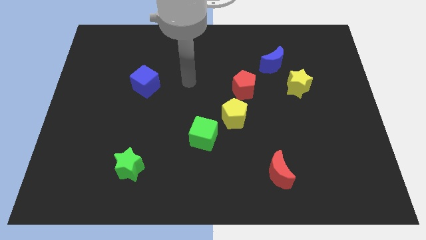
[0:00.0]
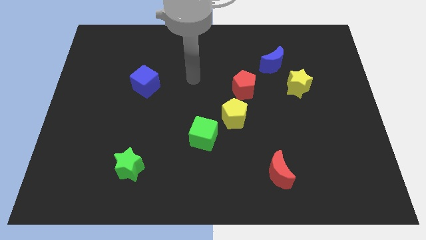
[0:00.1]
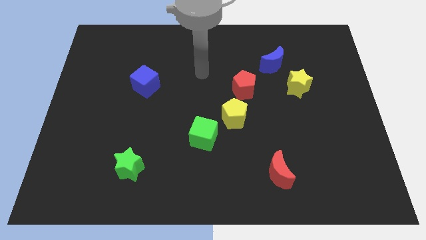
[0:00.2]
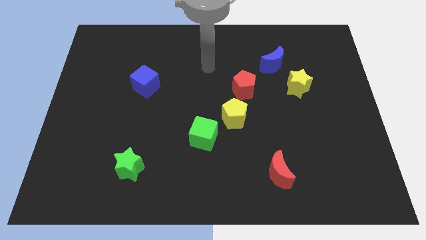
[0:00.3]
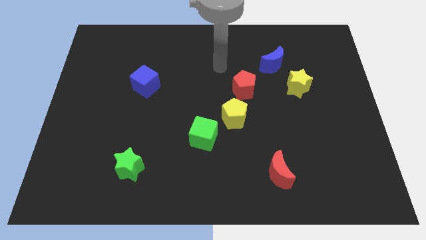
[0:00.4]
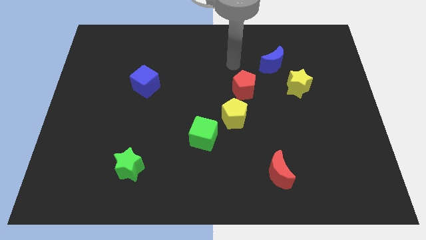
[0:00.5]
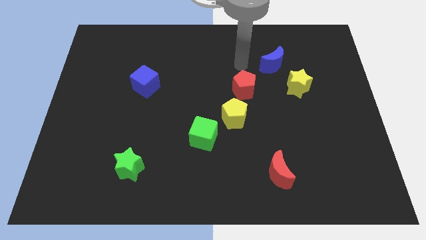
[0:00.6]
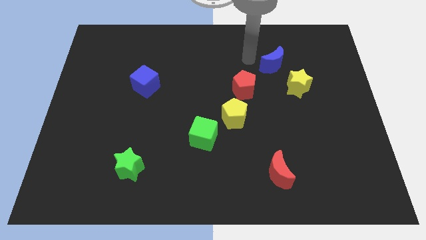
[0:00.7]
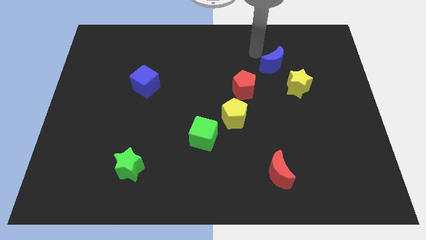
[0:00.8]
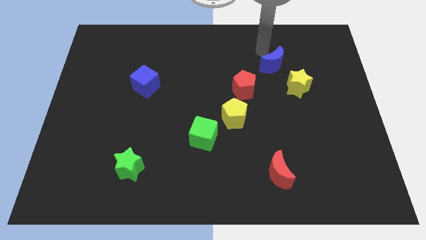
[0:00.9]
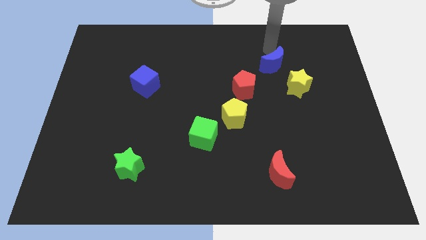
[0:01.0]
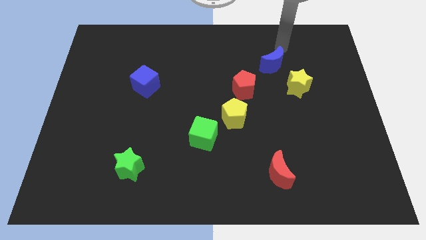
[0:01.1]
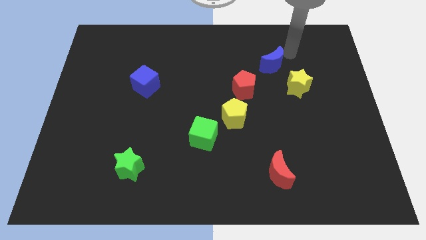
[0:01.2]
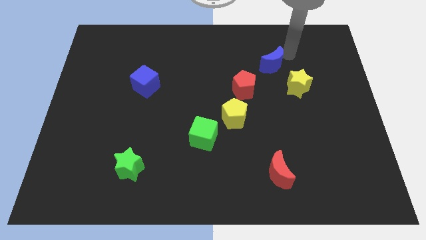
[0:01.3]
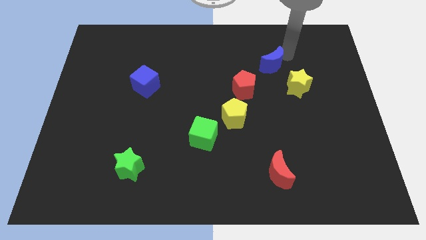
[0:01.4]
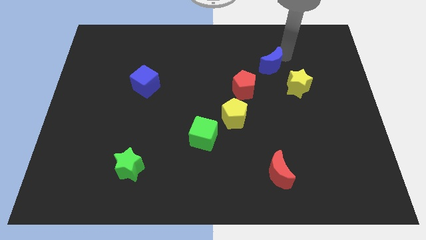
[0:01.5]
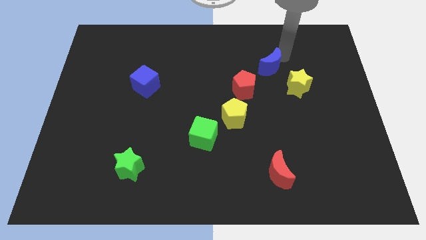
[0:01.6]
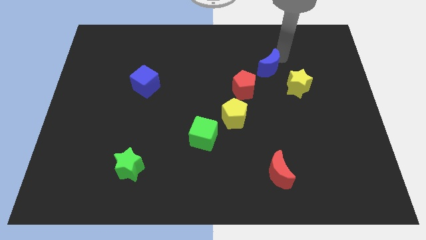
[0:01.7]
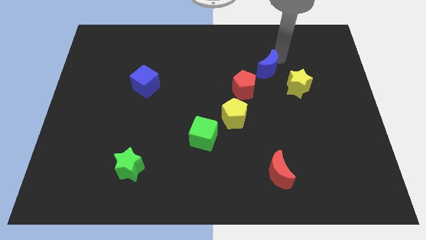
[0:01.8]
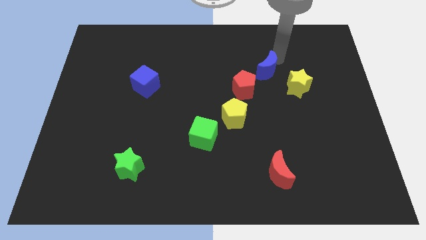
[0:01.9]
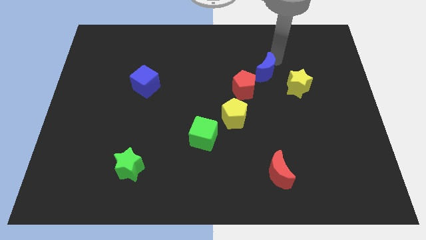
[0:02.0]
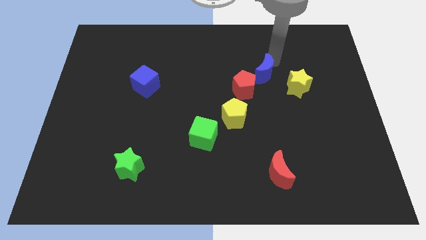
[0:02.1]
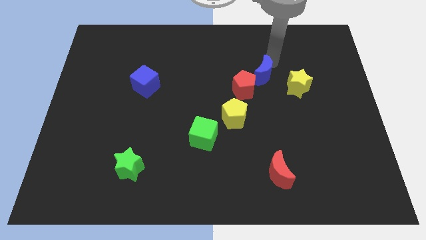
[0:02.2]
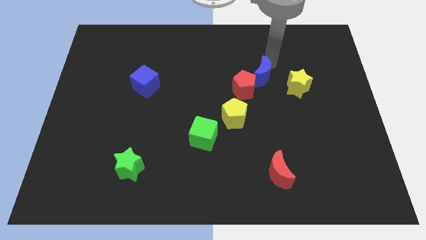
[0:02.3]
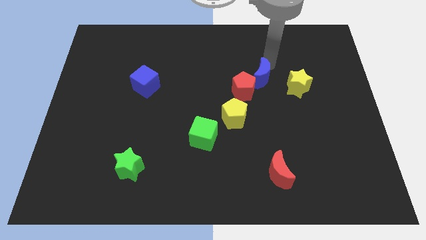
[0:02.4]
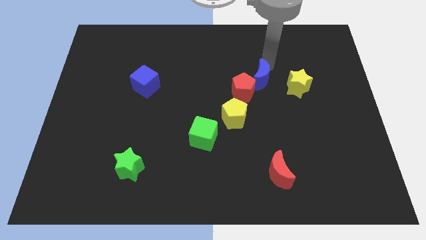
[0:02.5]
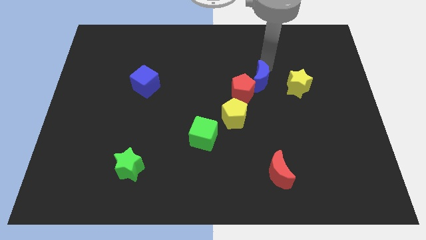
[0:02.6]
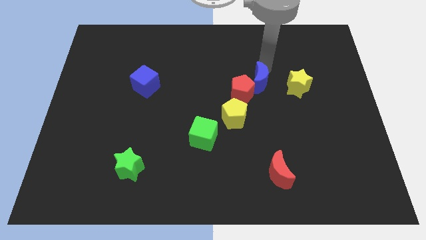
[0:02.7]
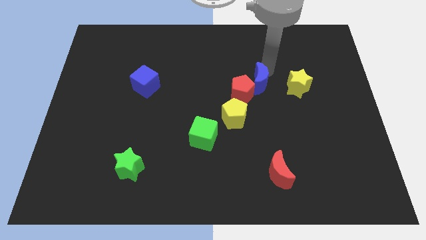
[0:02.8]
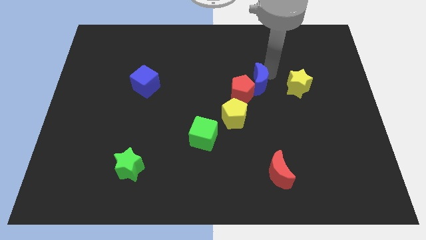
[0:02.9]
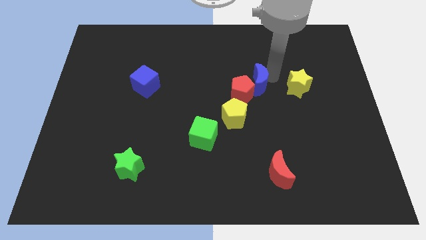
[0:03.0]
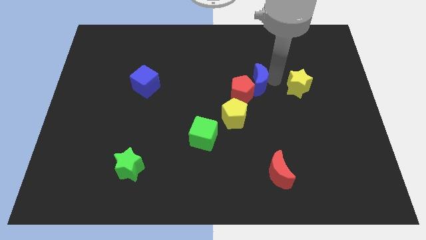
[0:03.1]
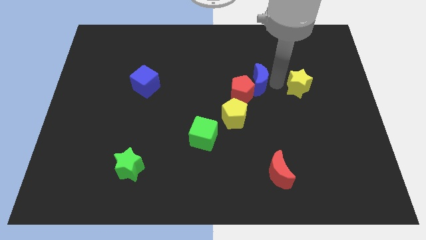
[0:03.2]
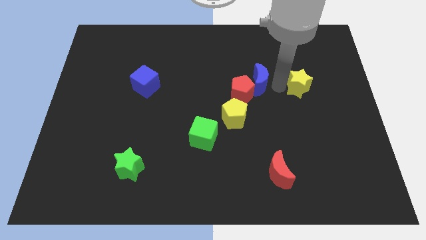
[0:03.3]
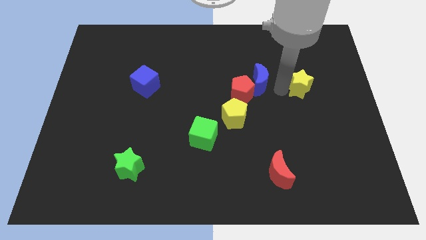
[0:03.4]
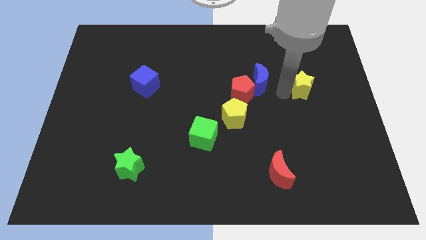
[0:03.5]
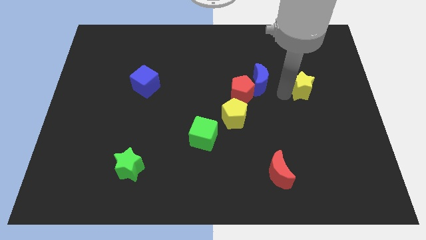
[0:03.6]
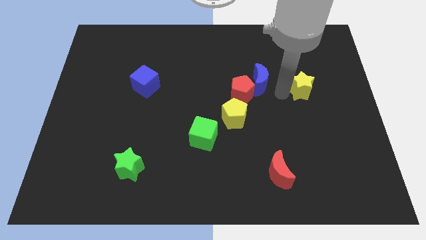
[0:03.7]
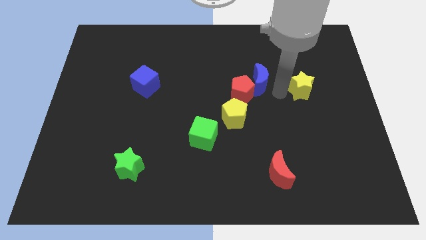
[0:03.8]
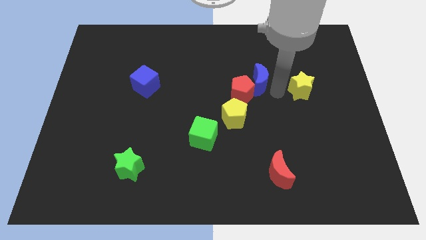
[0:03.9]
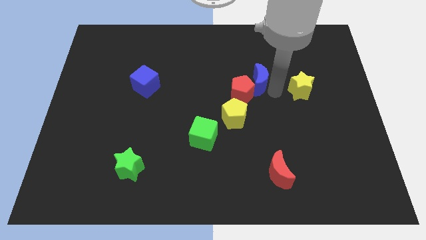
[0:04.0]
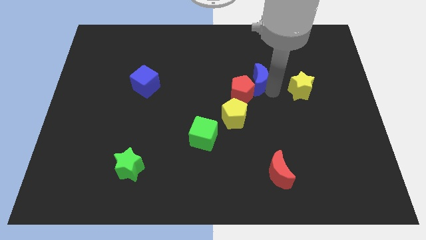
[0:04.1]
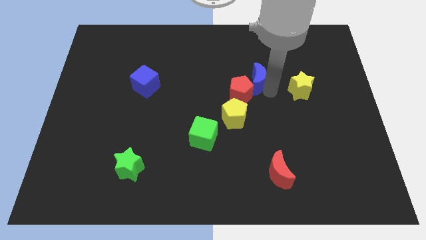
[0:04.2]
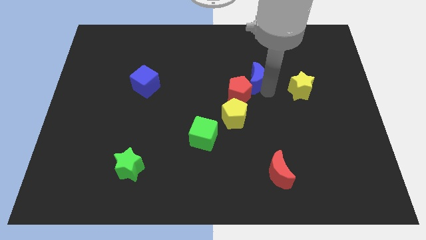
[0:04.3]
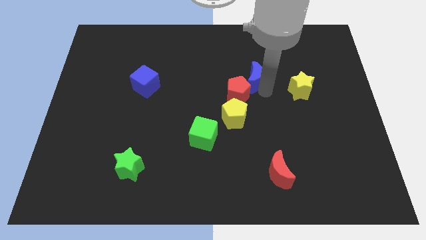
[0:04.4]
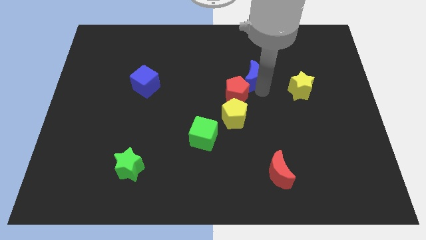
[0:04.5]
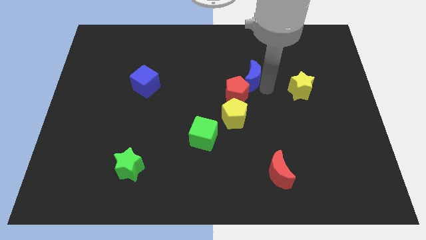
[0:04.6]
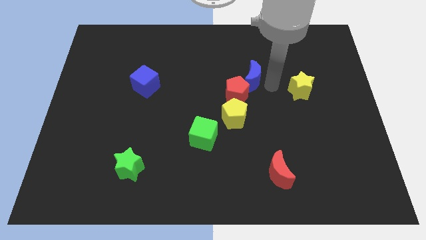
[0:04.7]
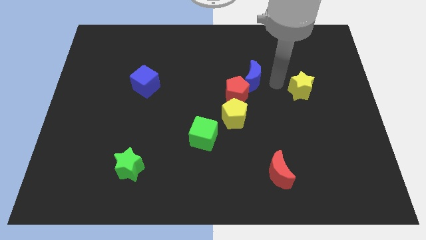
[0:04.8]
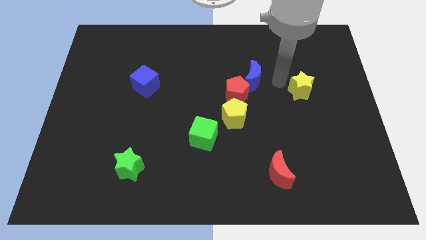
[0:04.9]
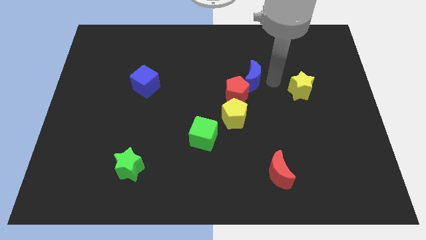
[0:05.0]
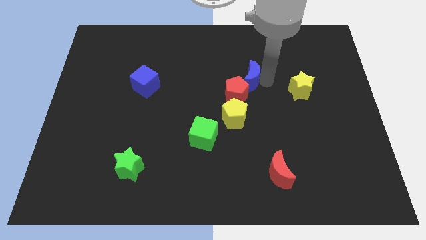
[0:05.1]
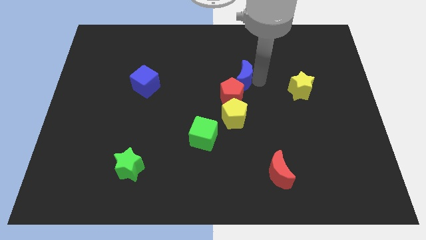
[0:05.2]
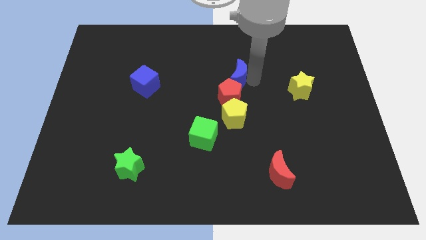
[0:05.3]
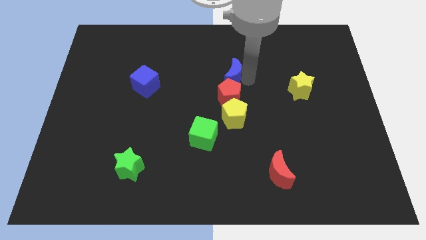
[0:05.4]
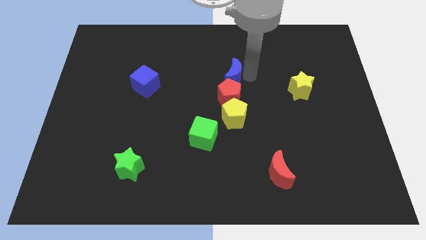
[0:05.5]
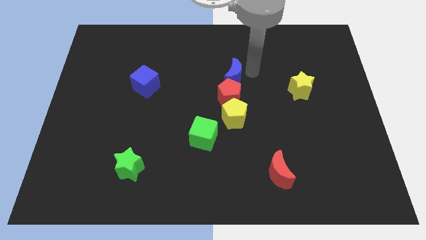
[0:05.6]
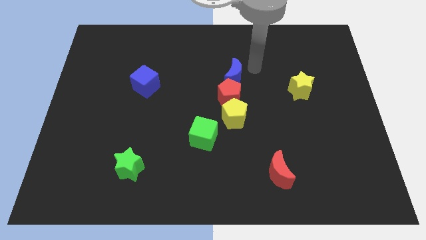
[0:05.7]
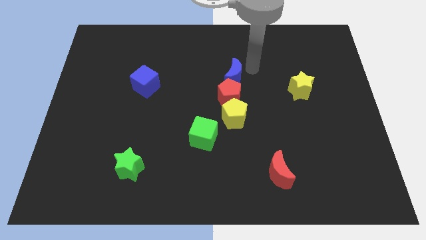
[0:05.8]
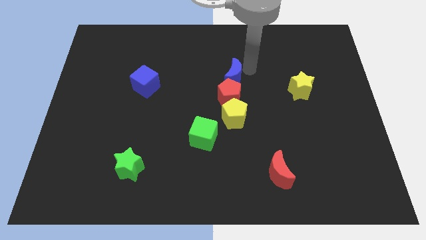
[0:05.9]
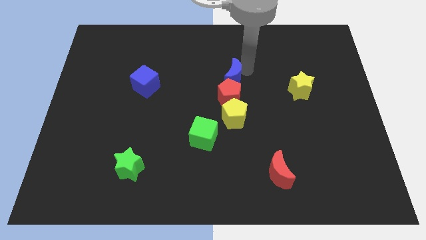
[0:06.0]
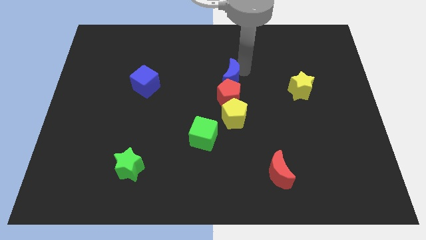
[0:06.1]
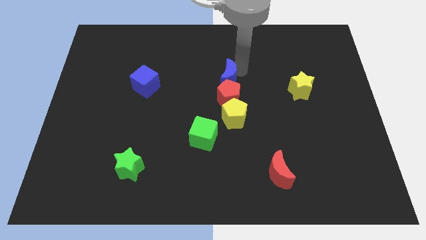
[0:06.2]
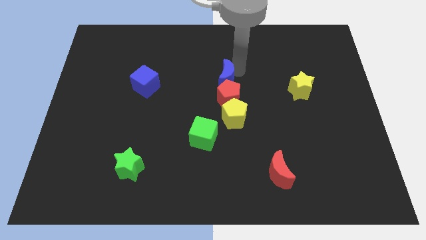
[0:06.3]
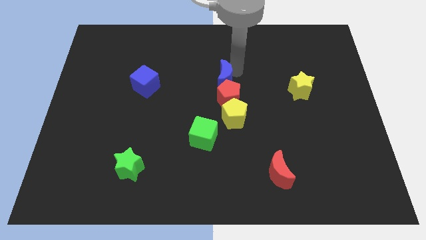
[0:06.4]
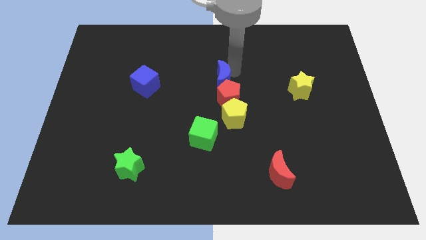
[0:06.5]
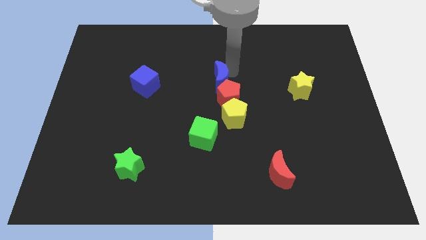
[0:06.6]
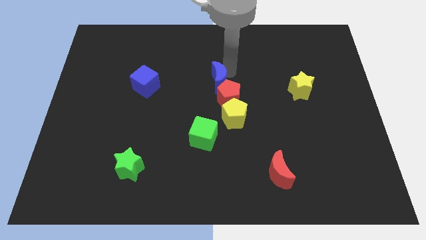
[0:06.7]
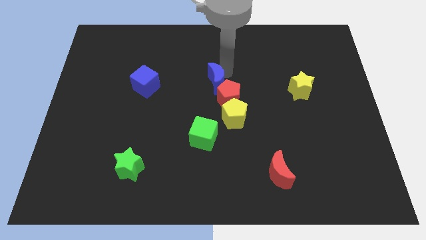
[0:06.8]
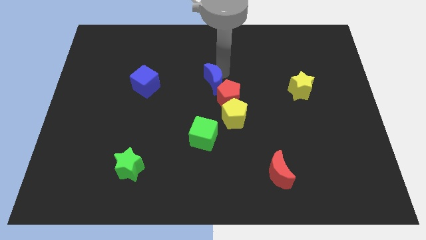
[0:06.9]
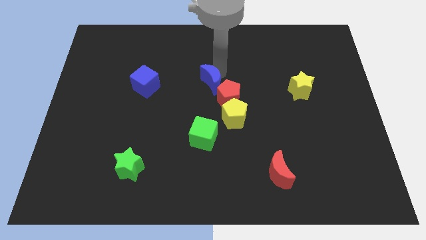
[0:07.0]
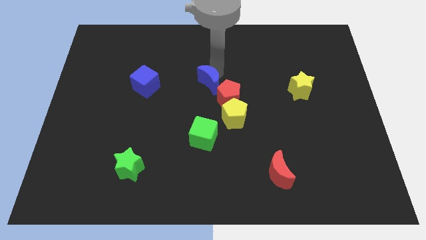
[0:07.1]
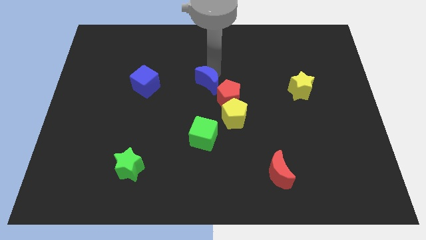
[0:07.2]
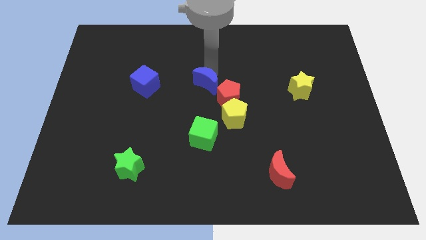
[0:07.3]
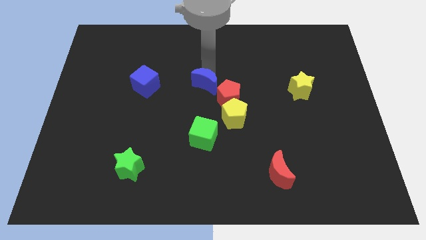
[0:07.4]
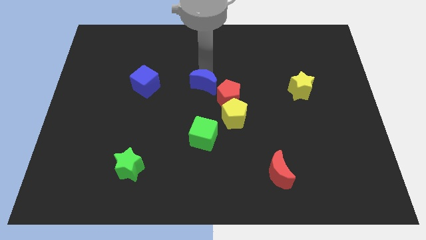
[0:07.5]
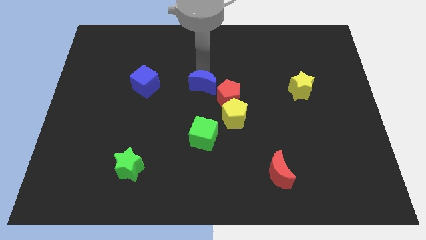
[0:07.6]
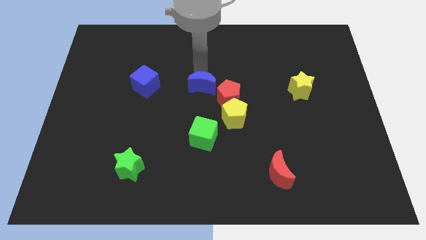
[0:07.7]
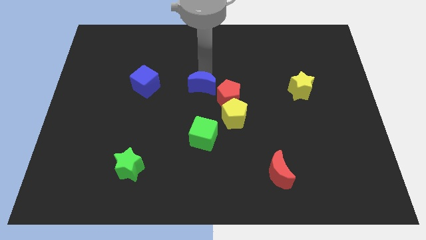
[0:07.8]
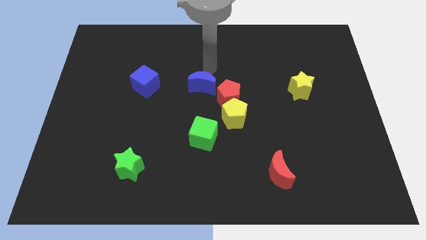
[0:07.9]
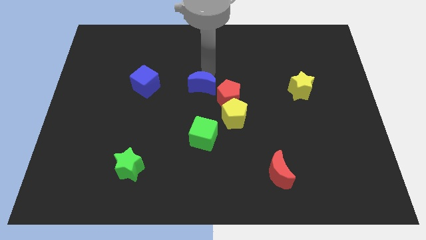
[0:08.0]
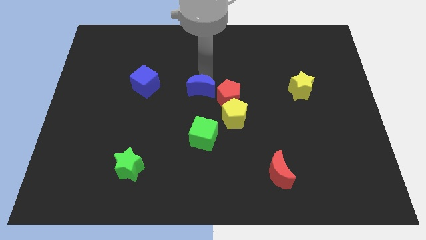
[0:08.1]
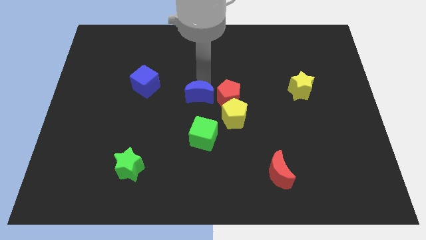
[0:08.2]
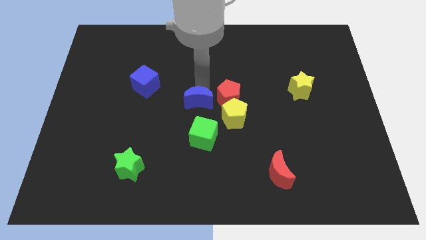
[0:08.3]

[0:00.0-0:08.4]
slide the blue moon downwards and left
